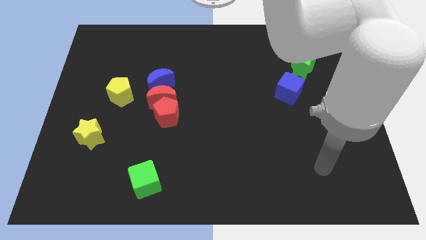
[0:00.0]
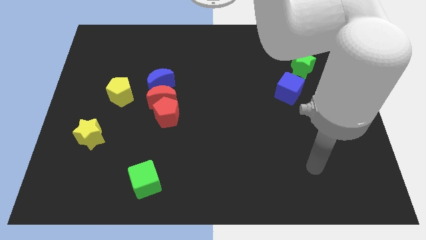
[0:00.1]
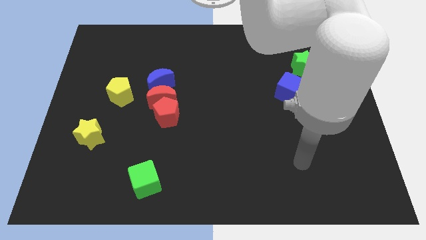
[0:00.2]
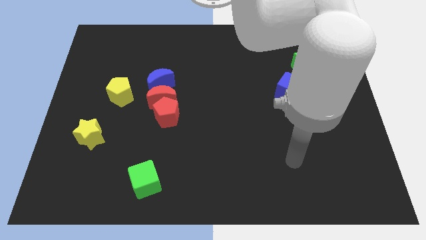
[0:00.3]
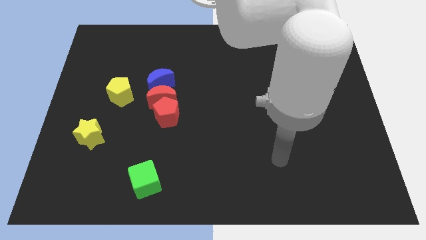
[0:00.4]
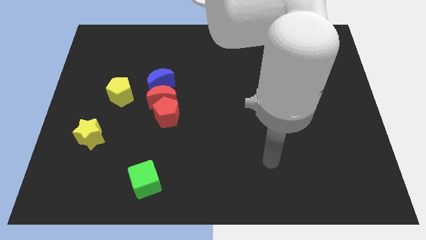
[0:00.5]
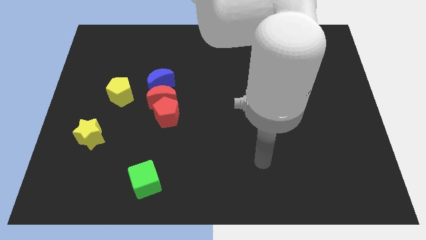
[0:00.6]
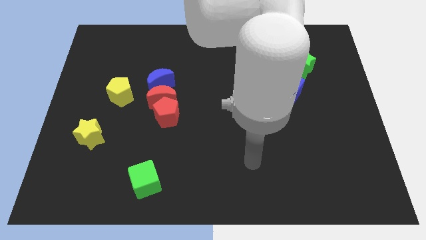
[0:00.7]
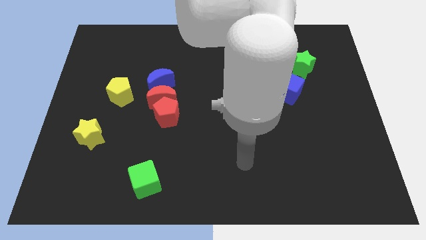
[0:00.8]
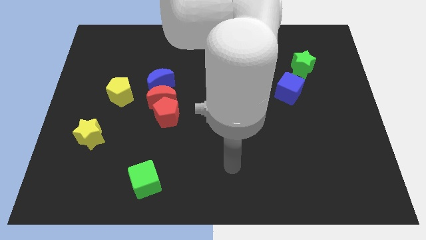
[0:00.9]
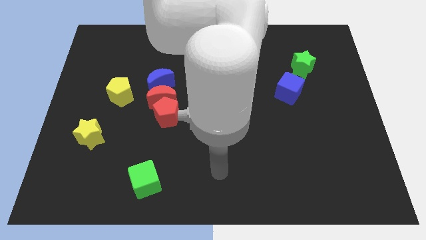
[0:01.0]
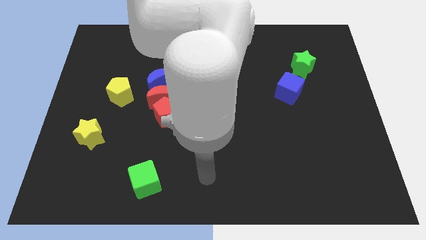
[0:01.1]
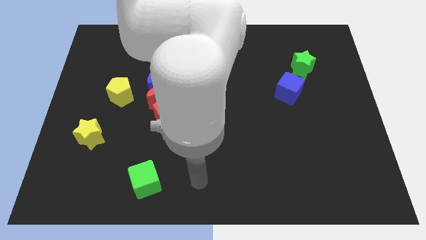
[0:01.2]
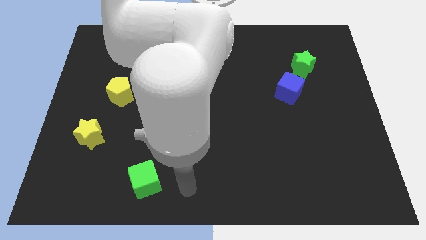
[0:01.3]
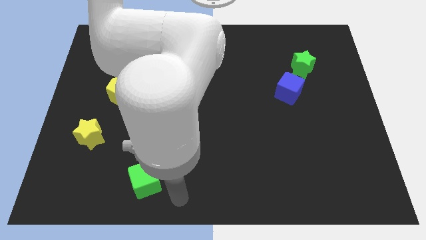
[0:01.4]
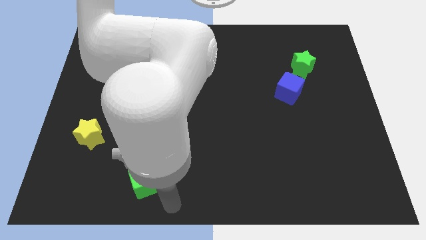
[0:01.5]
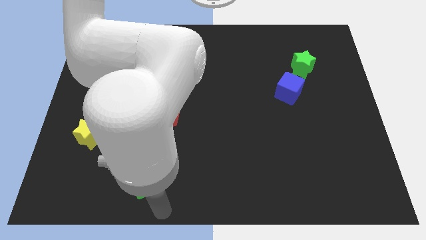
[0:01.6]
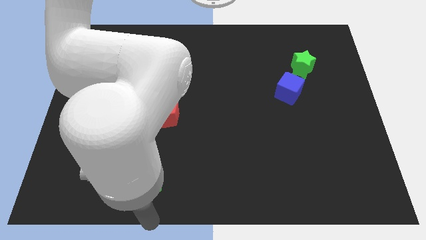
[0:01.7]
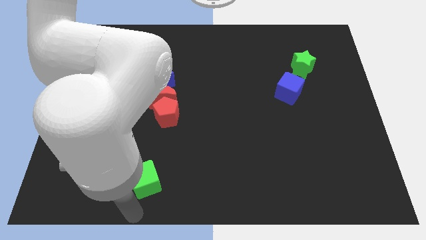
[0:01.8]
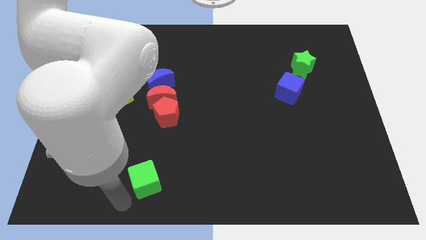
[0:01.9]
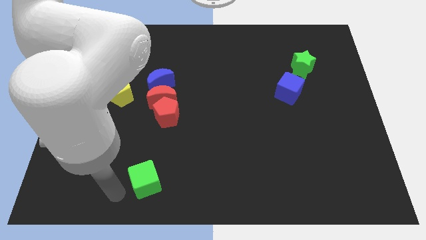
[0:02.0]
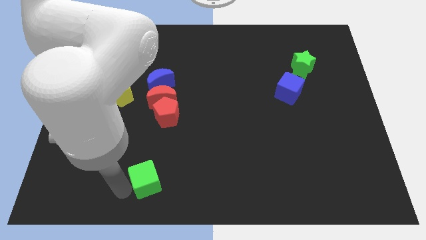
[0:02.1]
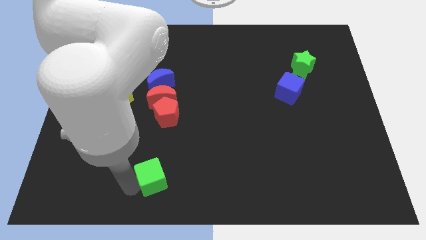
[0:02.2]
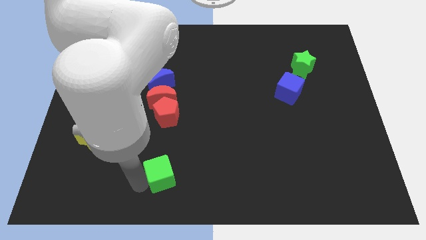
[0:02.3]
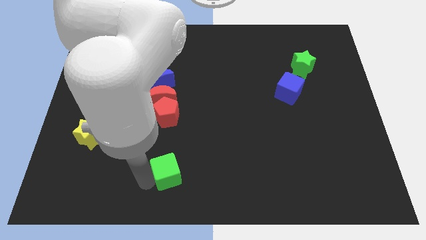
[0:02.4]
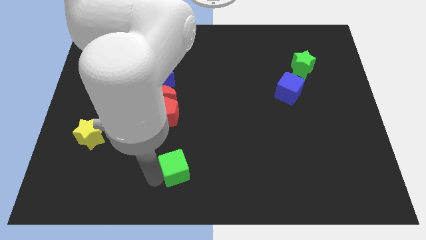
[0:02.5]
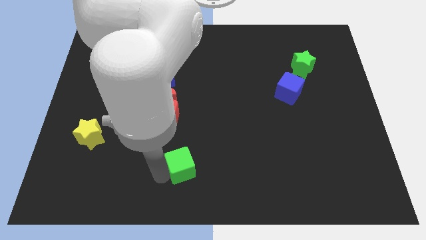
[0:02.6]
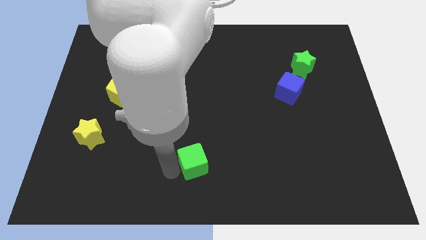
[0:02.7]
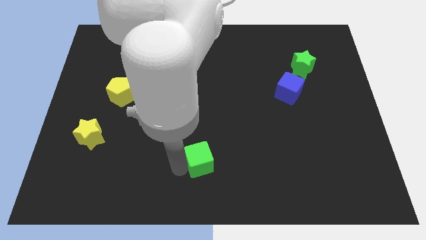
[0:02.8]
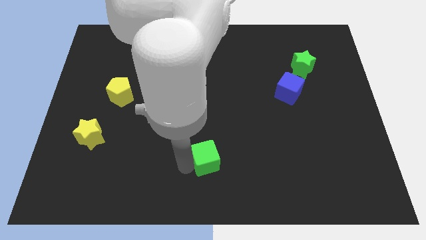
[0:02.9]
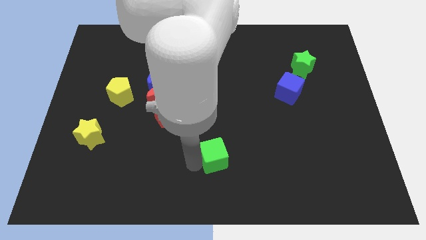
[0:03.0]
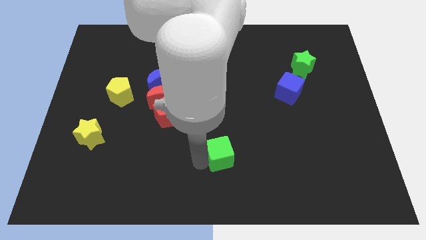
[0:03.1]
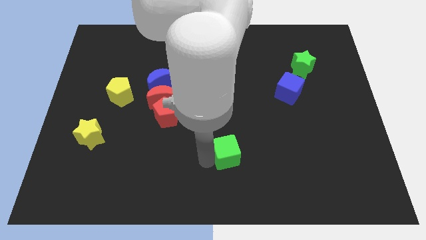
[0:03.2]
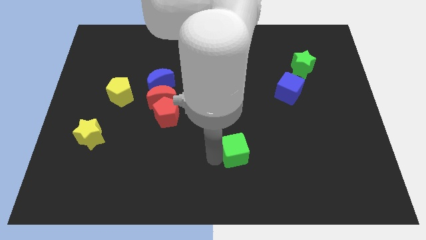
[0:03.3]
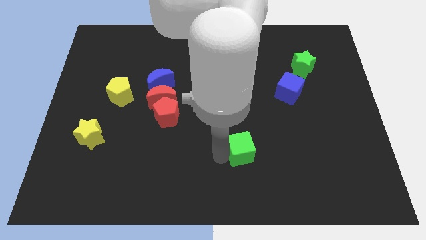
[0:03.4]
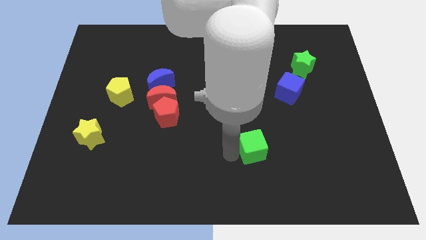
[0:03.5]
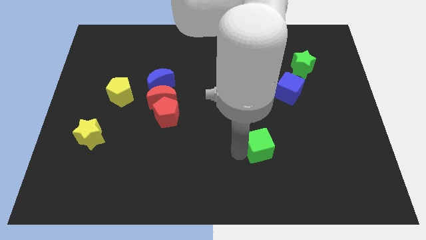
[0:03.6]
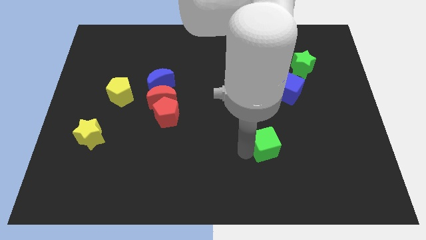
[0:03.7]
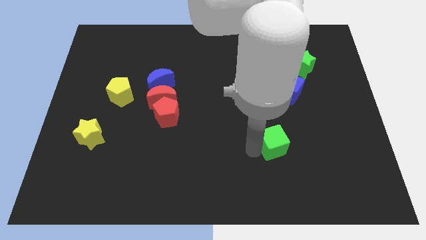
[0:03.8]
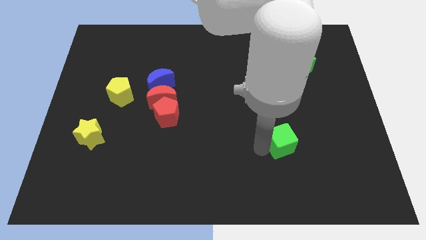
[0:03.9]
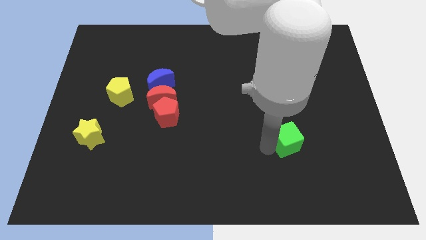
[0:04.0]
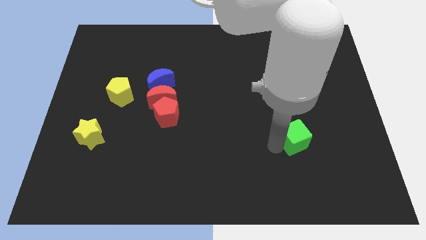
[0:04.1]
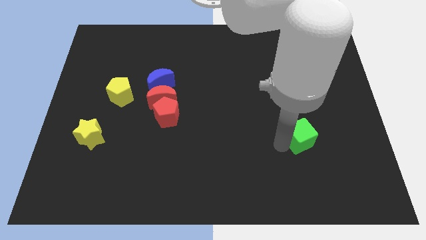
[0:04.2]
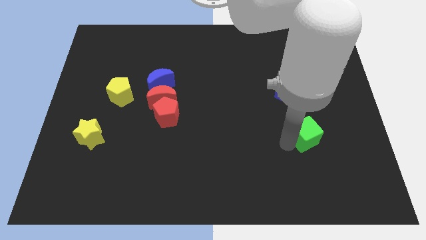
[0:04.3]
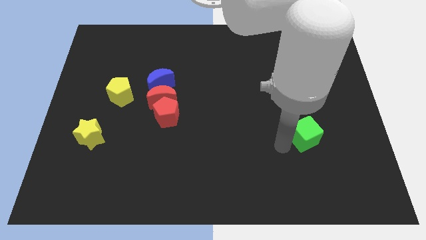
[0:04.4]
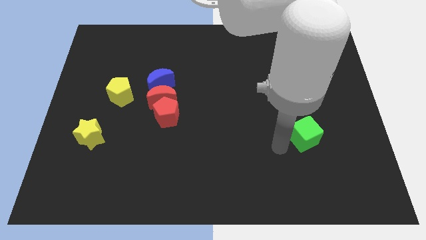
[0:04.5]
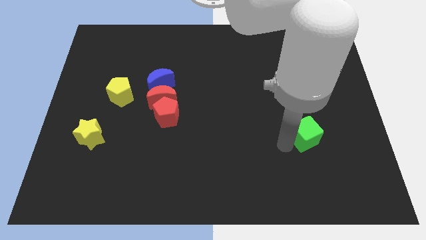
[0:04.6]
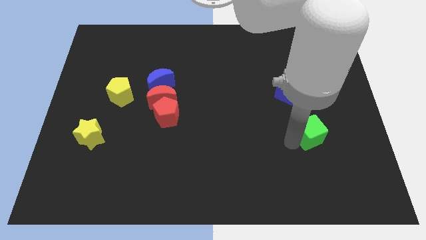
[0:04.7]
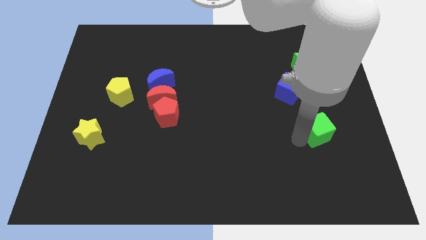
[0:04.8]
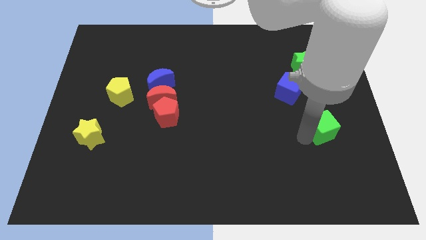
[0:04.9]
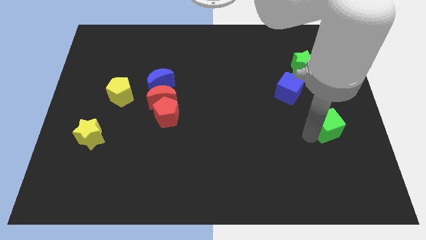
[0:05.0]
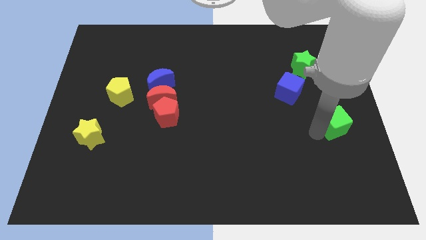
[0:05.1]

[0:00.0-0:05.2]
push the green cube to the right side

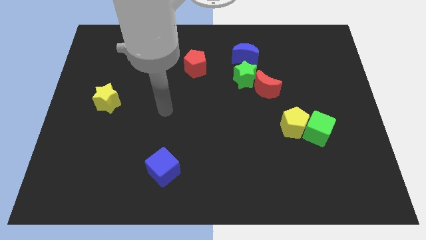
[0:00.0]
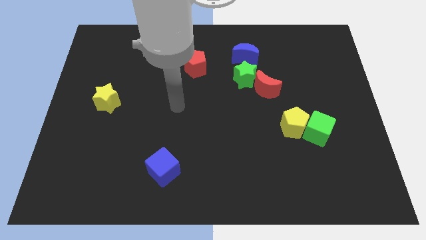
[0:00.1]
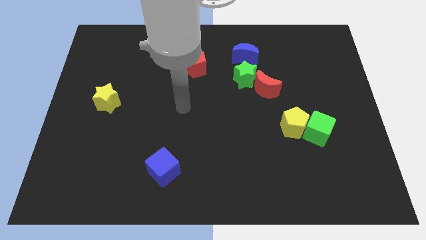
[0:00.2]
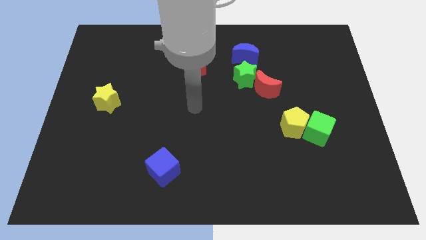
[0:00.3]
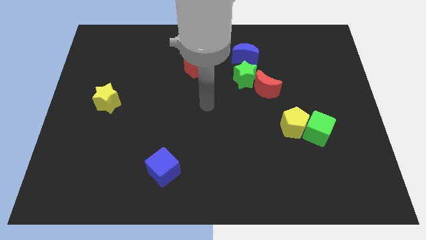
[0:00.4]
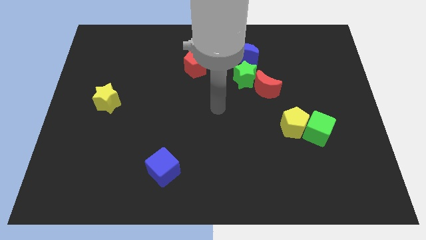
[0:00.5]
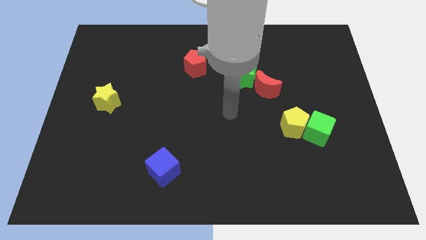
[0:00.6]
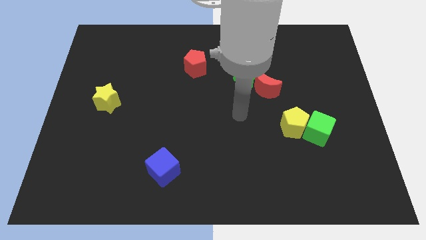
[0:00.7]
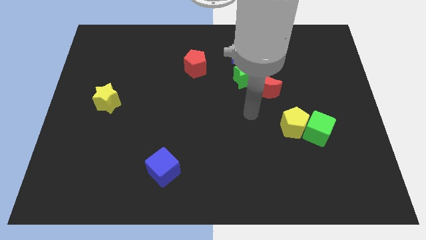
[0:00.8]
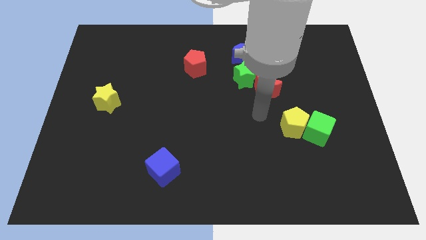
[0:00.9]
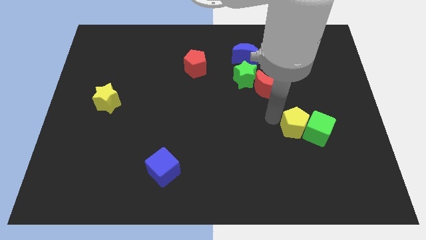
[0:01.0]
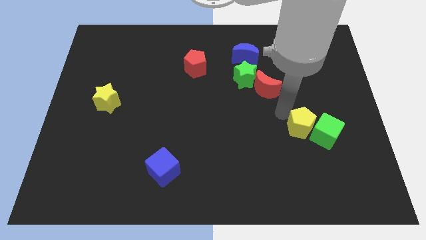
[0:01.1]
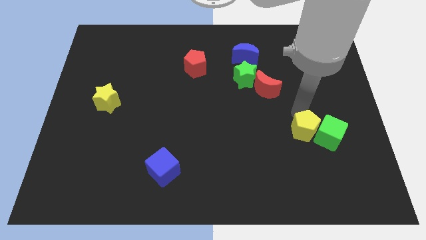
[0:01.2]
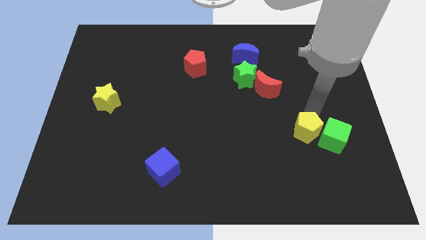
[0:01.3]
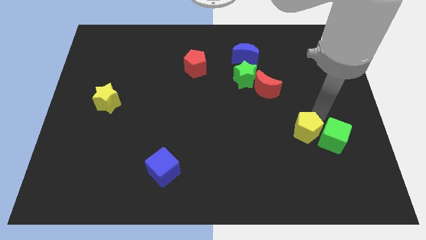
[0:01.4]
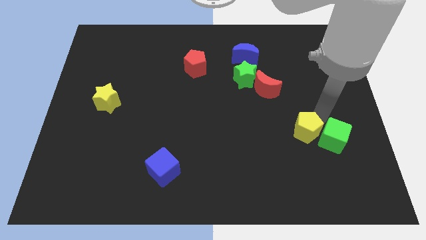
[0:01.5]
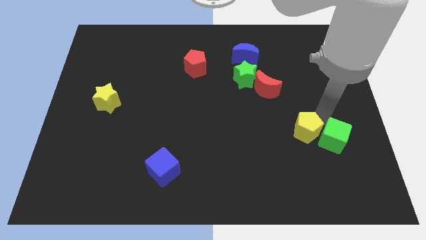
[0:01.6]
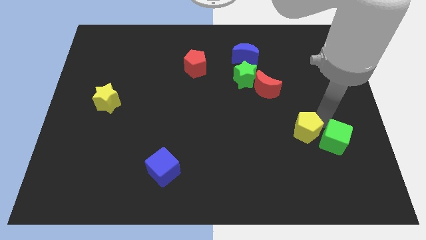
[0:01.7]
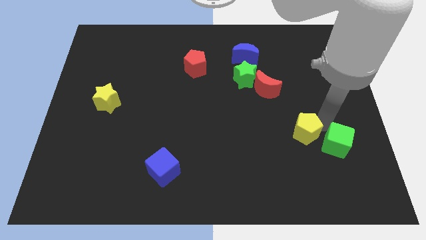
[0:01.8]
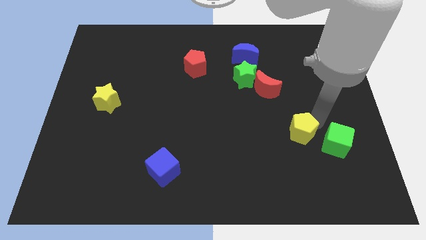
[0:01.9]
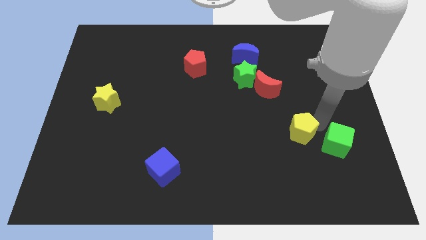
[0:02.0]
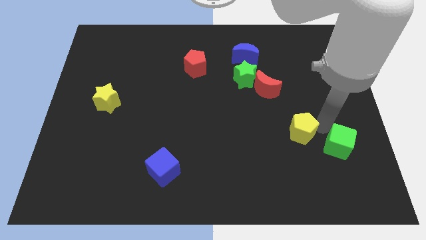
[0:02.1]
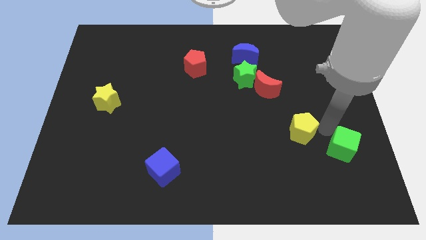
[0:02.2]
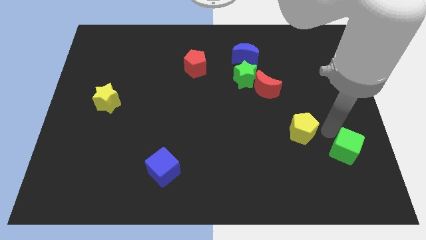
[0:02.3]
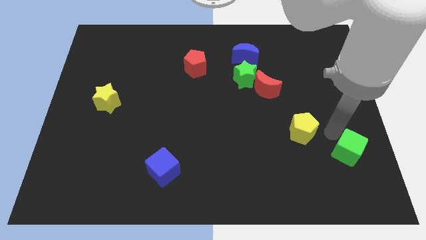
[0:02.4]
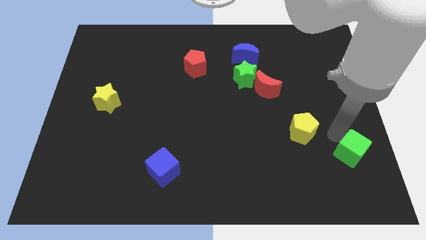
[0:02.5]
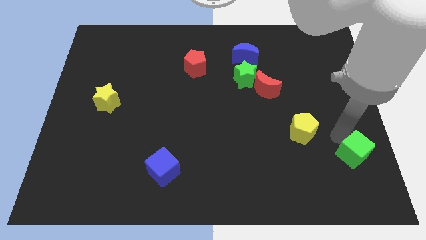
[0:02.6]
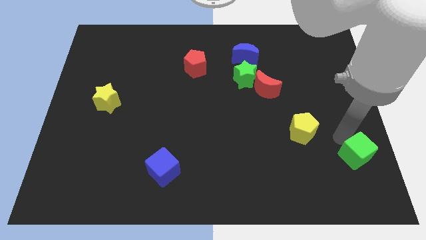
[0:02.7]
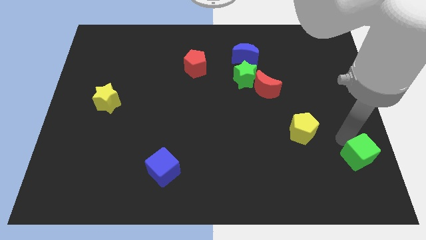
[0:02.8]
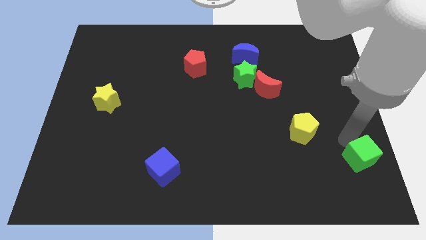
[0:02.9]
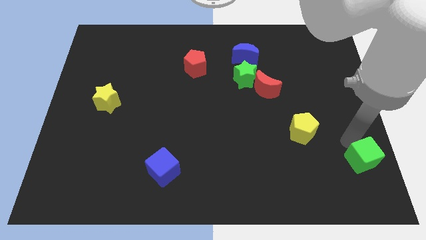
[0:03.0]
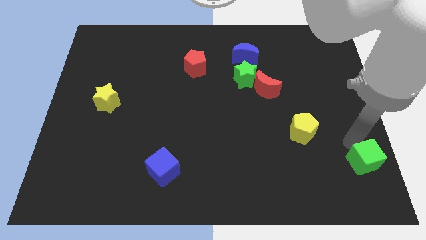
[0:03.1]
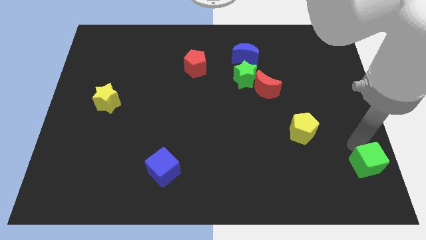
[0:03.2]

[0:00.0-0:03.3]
put the green cube to the bottom right corner
